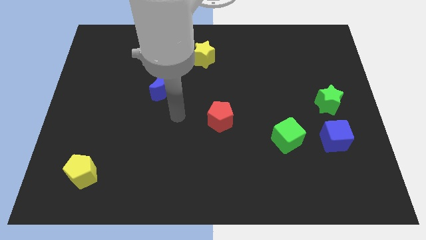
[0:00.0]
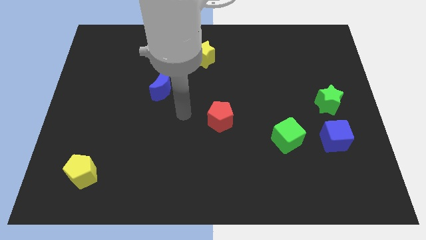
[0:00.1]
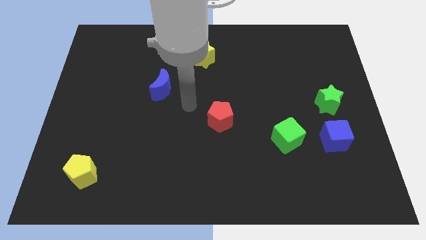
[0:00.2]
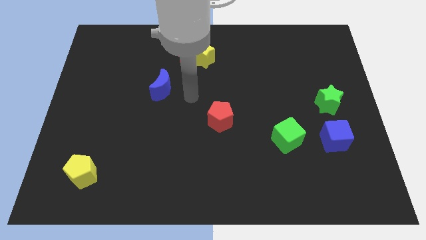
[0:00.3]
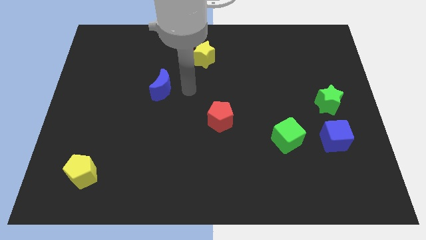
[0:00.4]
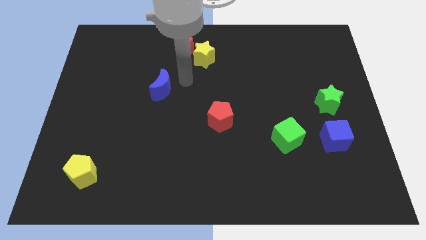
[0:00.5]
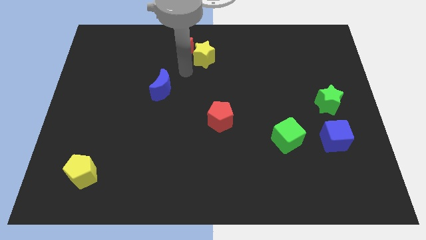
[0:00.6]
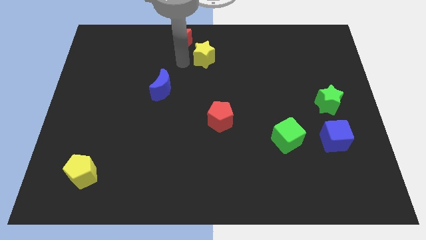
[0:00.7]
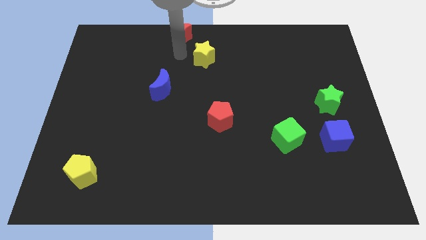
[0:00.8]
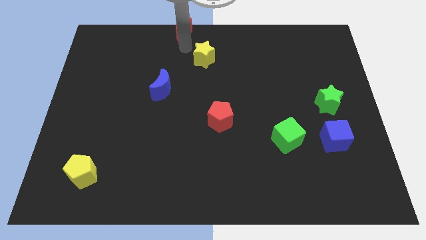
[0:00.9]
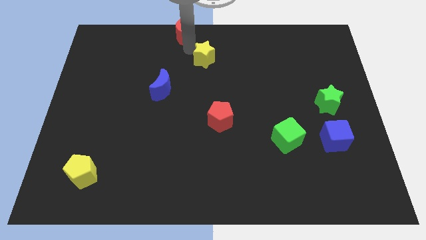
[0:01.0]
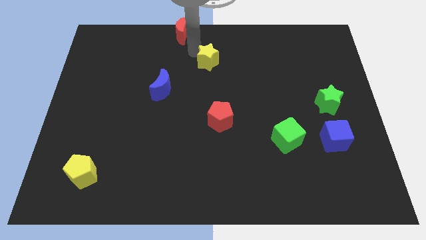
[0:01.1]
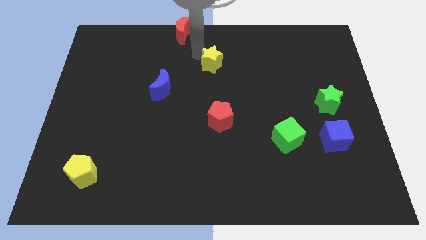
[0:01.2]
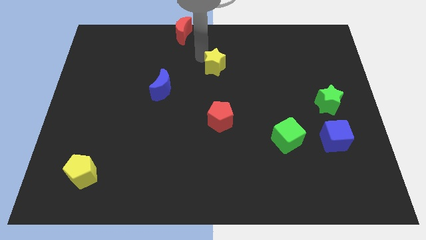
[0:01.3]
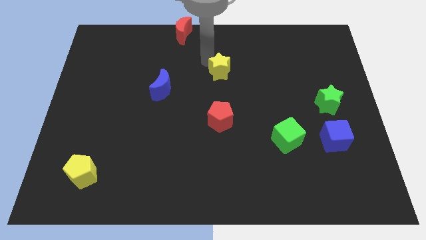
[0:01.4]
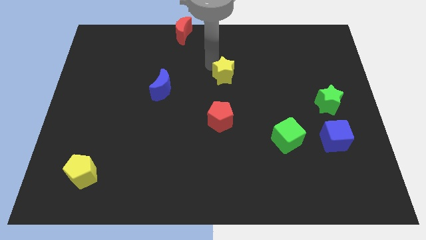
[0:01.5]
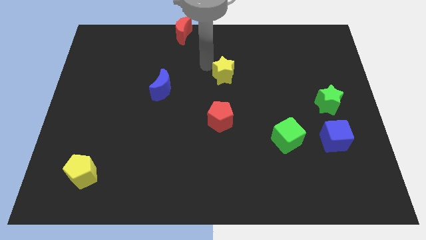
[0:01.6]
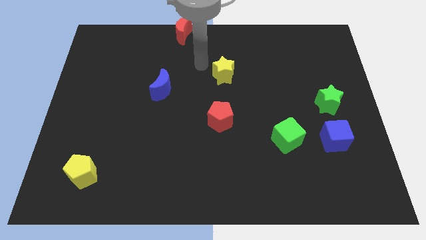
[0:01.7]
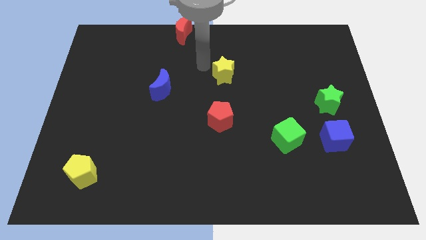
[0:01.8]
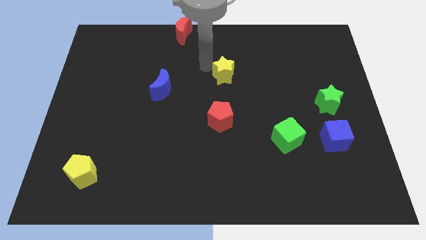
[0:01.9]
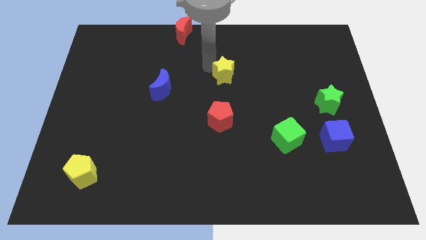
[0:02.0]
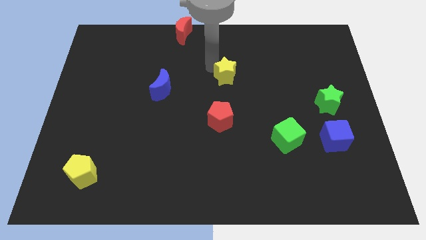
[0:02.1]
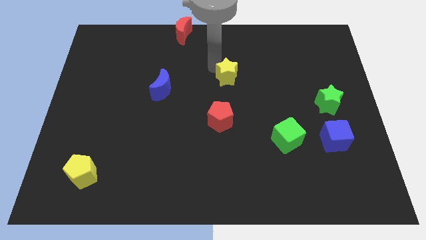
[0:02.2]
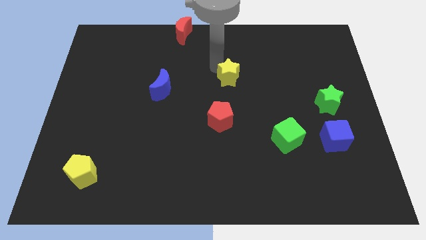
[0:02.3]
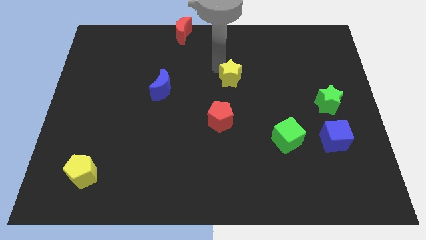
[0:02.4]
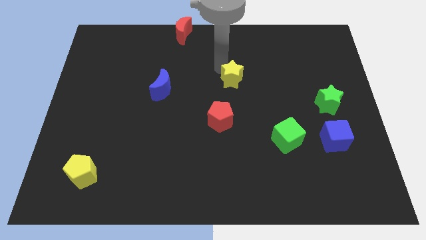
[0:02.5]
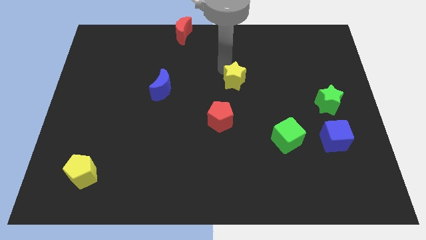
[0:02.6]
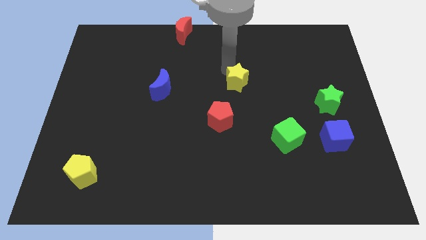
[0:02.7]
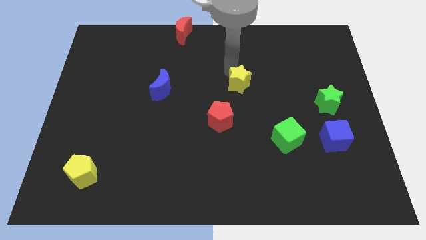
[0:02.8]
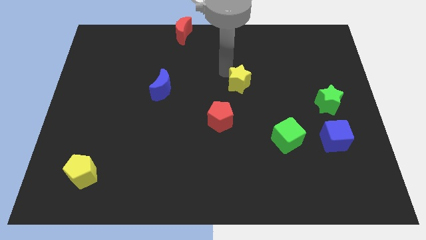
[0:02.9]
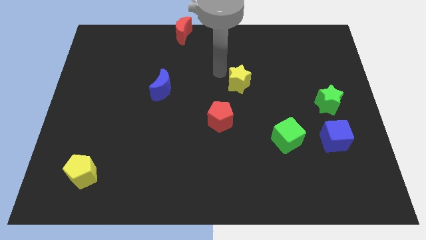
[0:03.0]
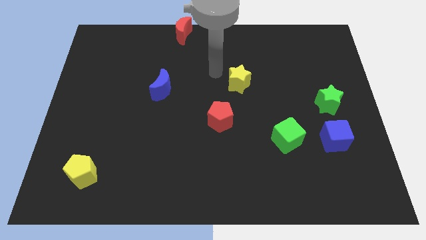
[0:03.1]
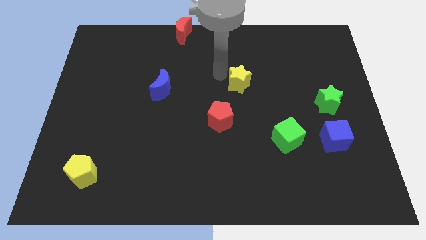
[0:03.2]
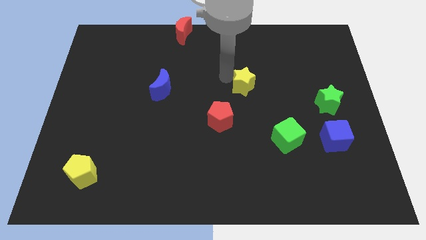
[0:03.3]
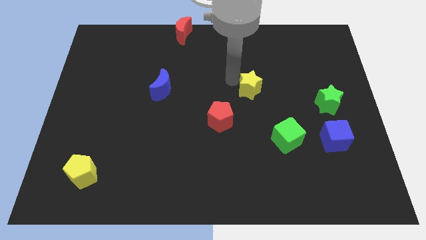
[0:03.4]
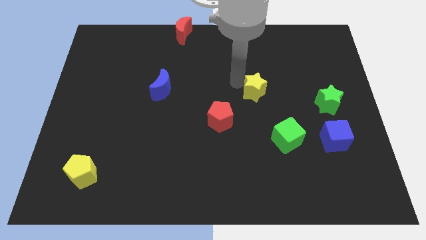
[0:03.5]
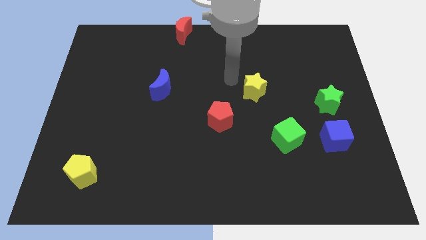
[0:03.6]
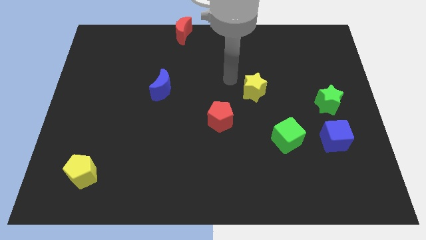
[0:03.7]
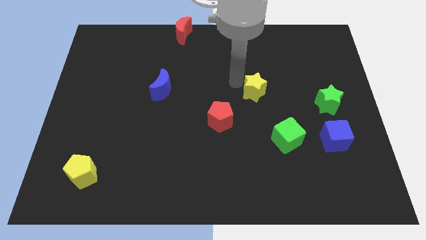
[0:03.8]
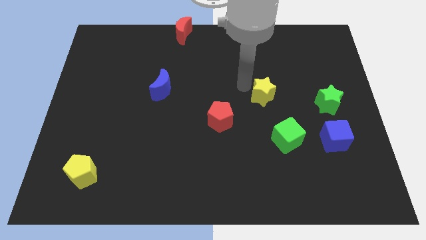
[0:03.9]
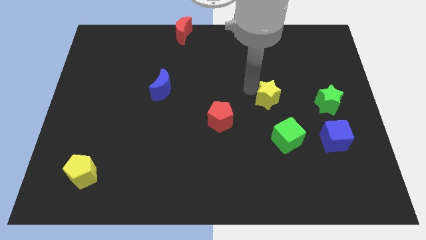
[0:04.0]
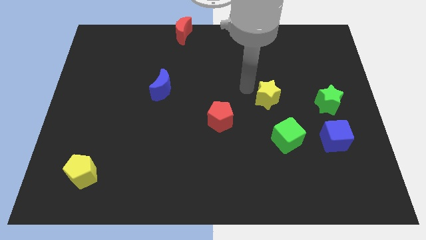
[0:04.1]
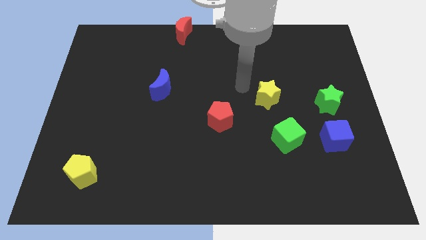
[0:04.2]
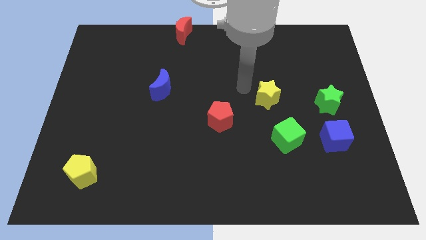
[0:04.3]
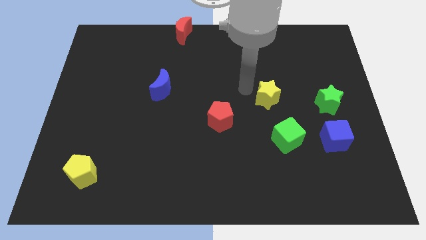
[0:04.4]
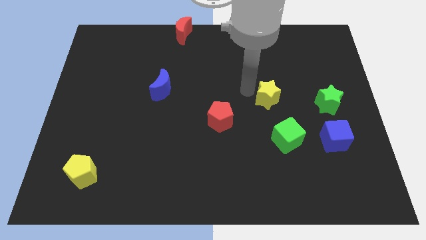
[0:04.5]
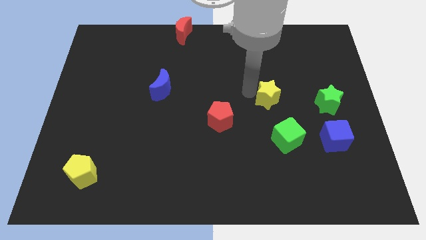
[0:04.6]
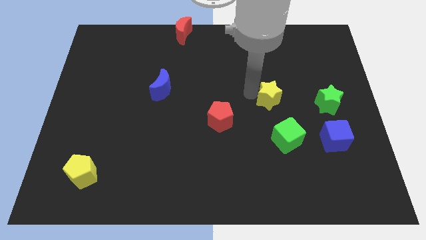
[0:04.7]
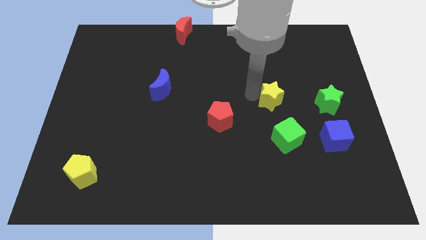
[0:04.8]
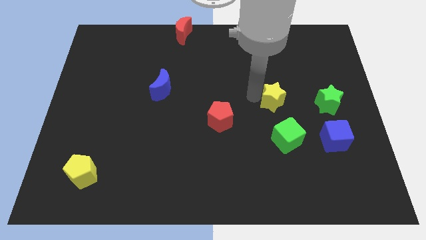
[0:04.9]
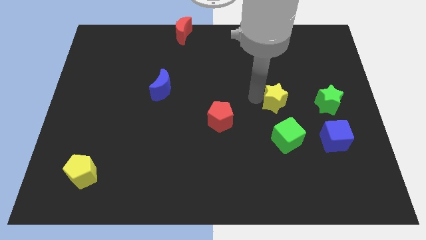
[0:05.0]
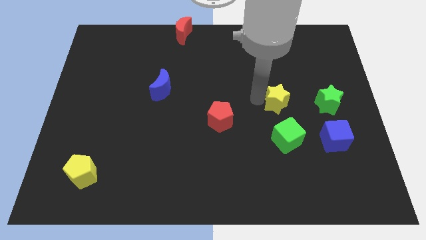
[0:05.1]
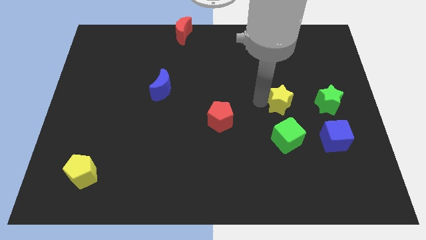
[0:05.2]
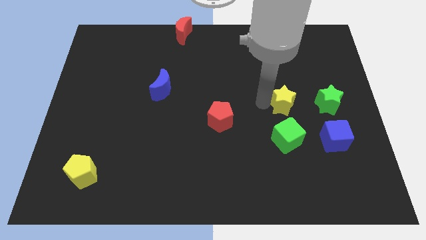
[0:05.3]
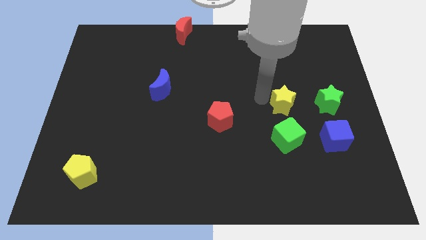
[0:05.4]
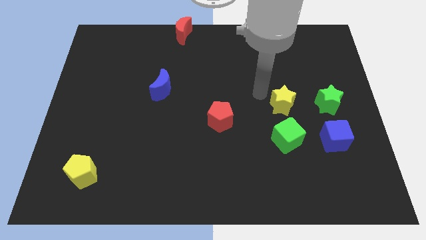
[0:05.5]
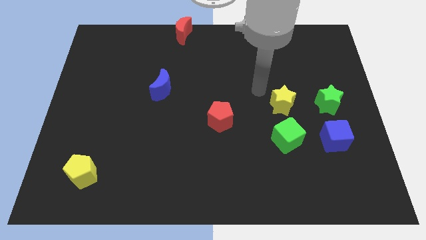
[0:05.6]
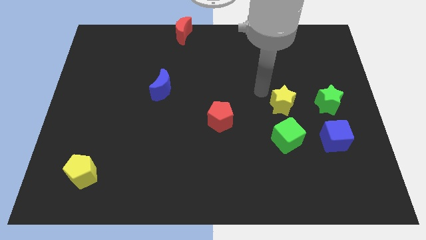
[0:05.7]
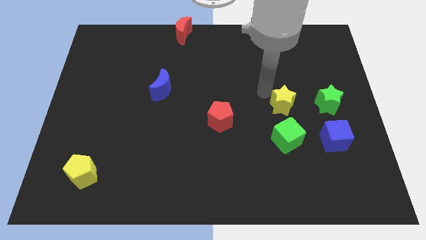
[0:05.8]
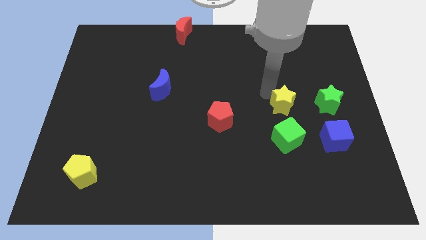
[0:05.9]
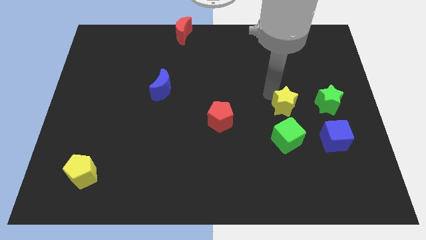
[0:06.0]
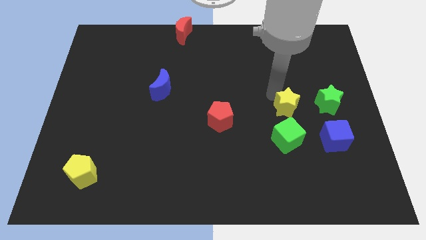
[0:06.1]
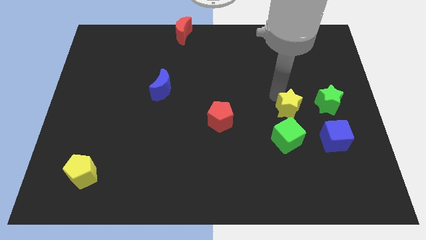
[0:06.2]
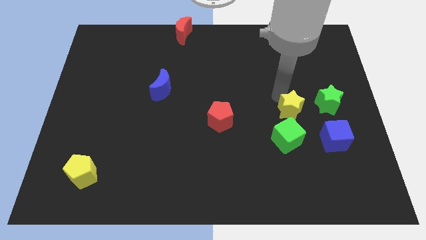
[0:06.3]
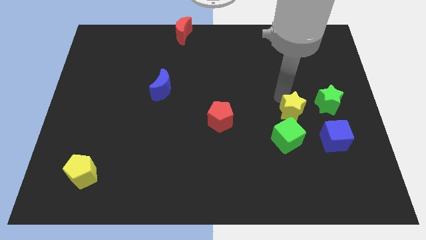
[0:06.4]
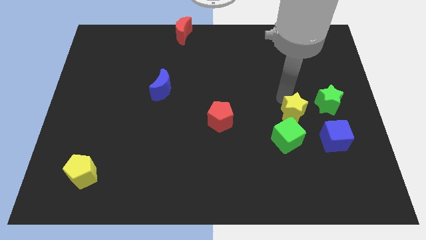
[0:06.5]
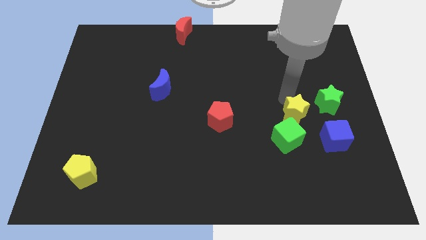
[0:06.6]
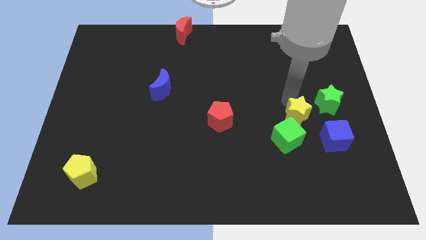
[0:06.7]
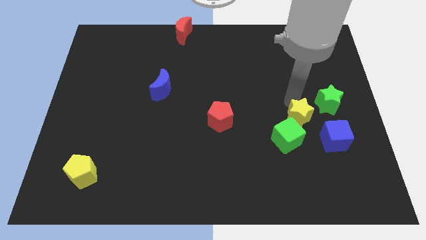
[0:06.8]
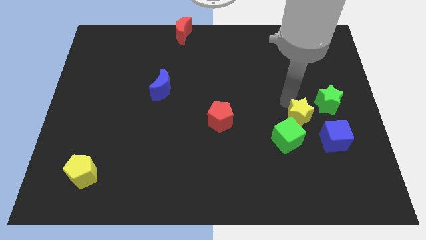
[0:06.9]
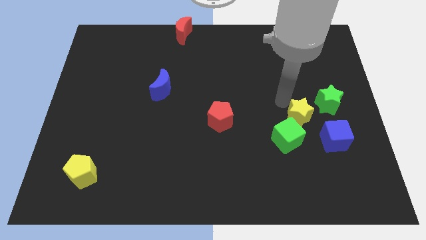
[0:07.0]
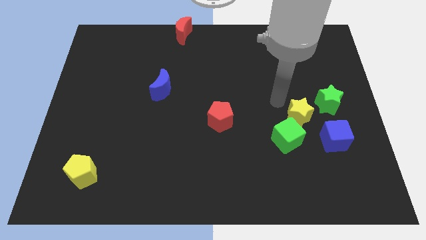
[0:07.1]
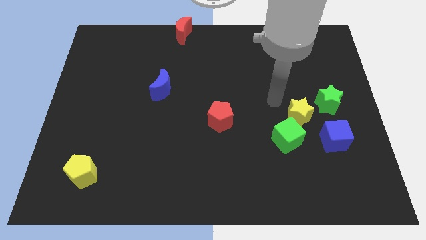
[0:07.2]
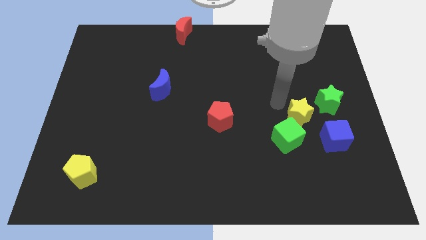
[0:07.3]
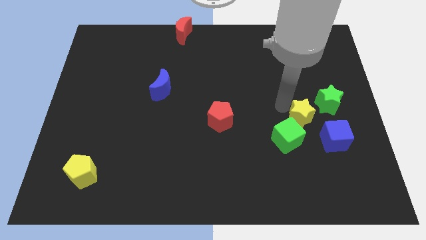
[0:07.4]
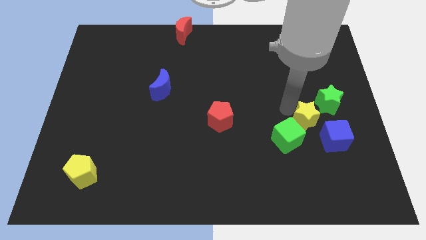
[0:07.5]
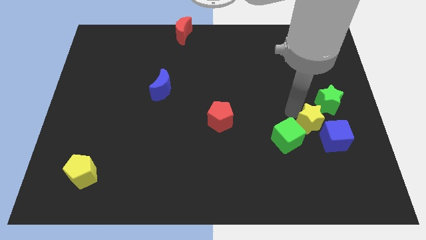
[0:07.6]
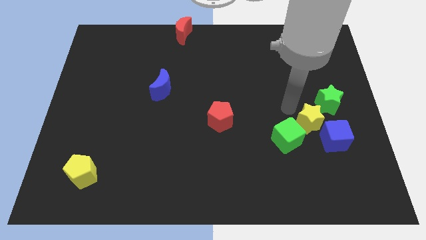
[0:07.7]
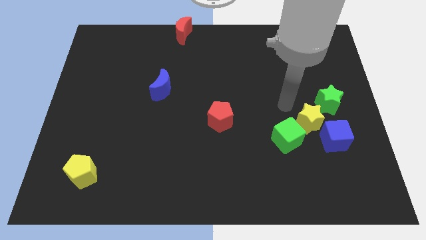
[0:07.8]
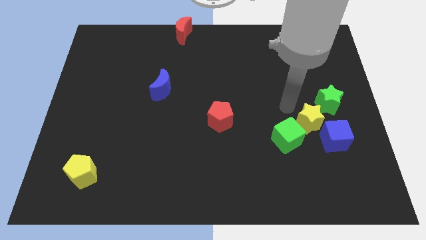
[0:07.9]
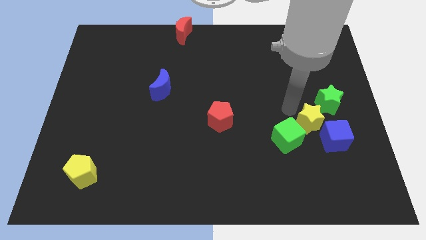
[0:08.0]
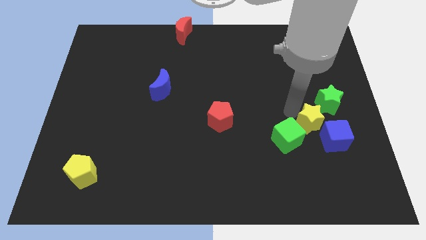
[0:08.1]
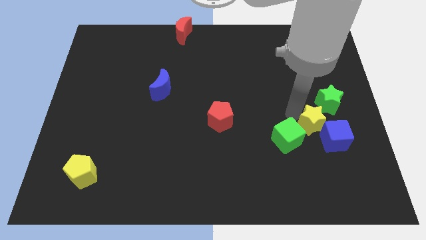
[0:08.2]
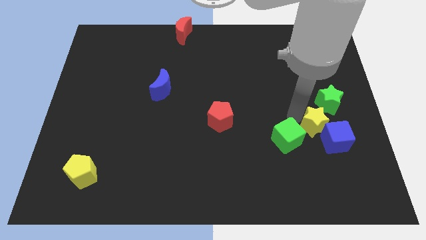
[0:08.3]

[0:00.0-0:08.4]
slide the yellow star next to the blue cube

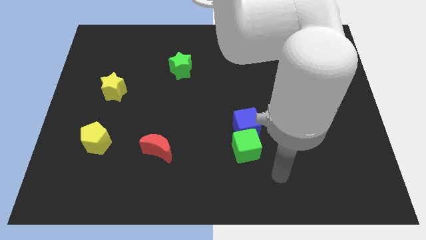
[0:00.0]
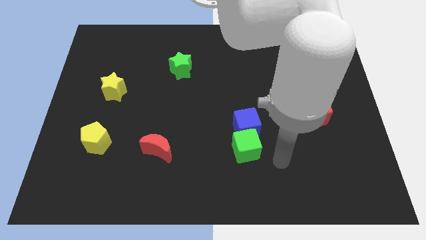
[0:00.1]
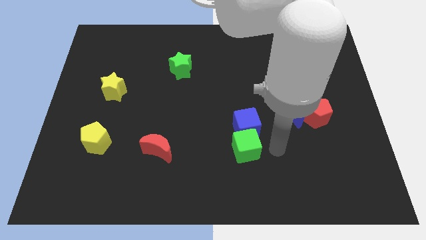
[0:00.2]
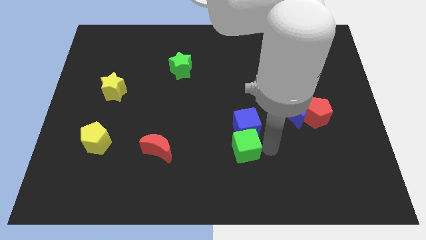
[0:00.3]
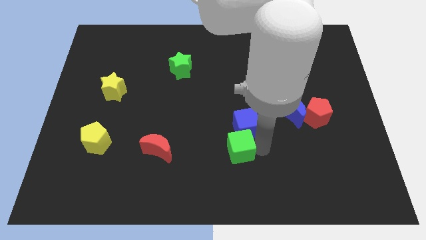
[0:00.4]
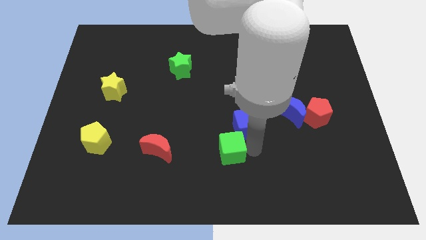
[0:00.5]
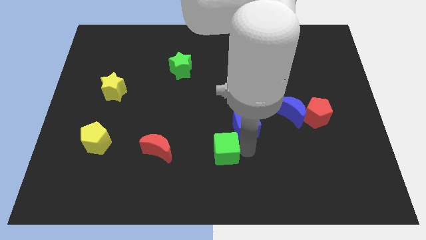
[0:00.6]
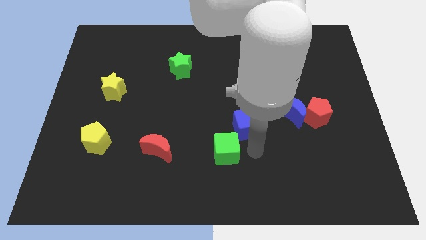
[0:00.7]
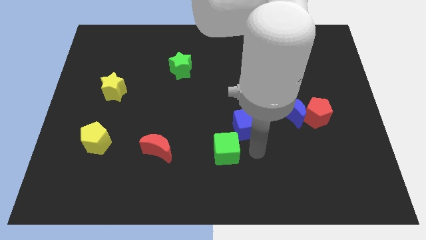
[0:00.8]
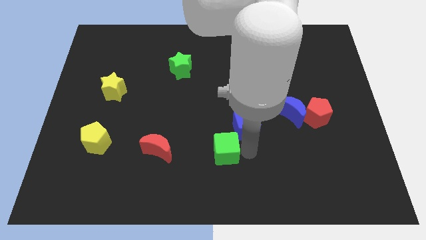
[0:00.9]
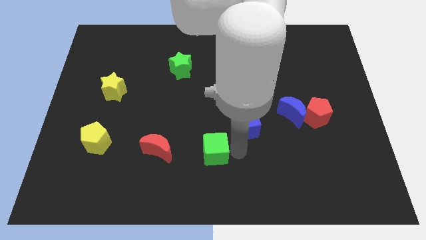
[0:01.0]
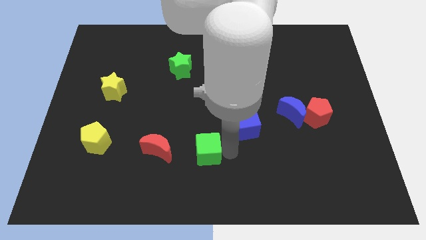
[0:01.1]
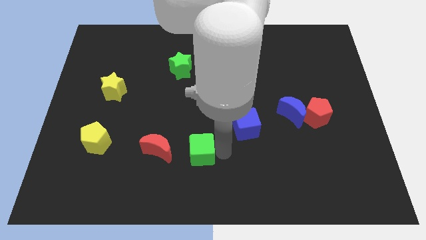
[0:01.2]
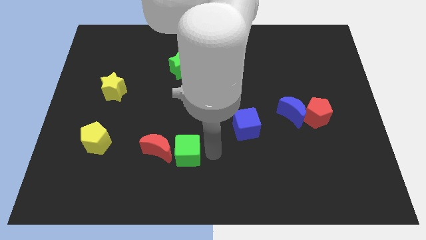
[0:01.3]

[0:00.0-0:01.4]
put the green cube towards the red moon
